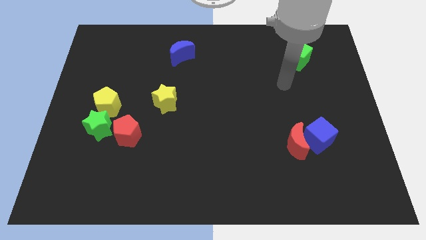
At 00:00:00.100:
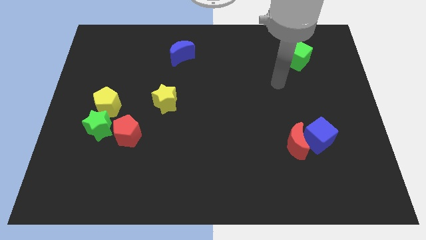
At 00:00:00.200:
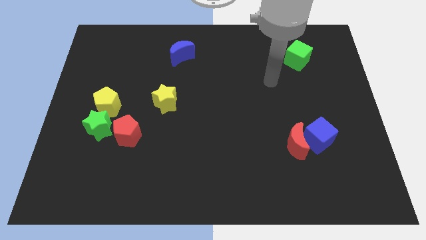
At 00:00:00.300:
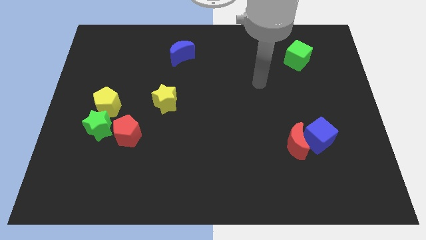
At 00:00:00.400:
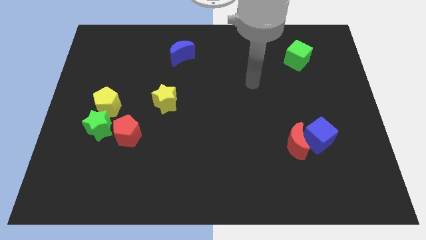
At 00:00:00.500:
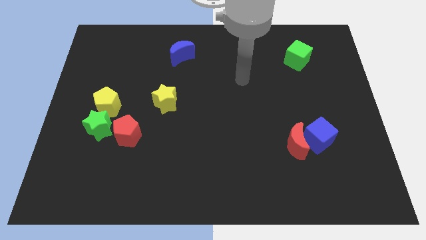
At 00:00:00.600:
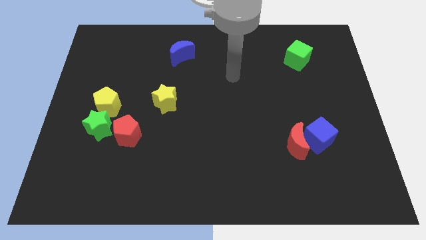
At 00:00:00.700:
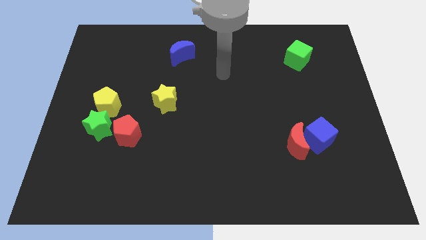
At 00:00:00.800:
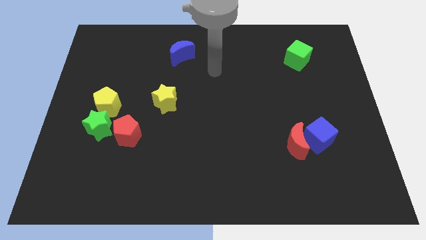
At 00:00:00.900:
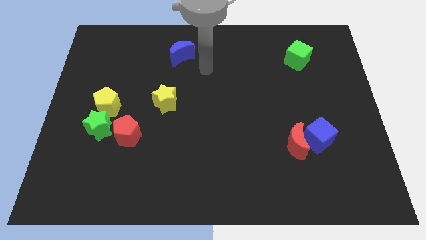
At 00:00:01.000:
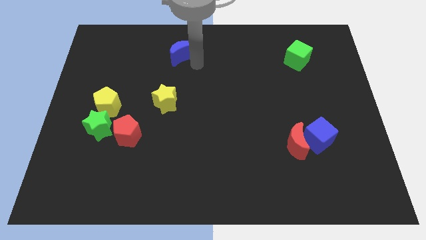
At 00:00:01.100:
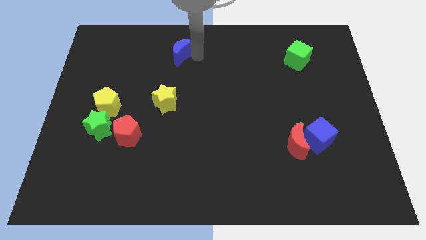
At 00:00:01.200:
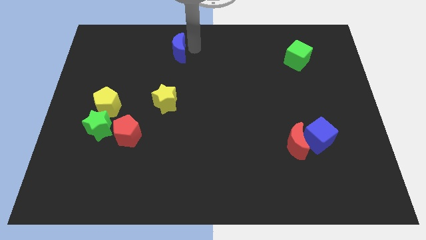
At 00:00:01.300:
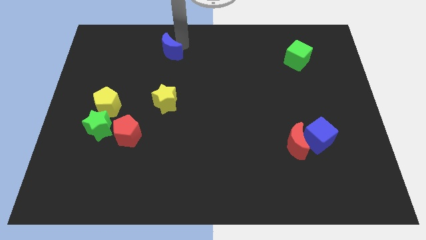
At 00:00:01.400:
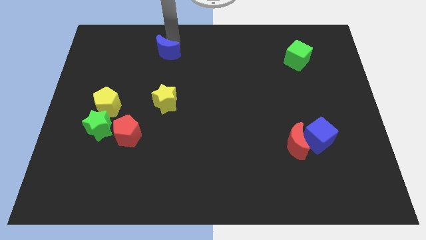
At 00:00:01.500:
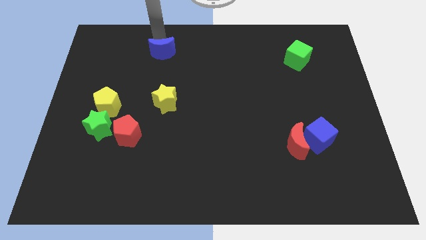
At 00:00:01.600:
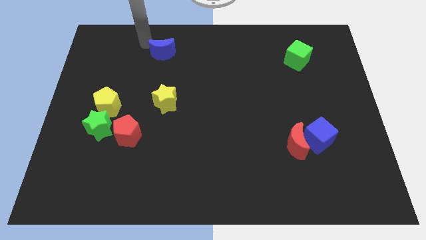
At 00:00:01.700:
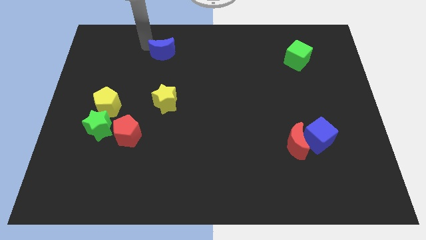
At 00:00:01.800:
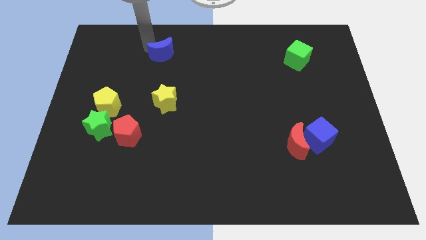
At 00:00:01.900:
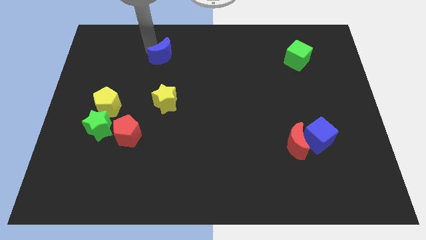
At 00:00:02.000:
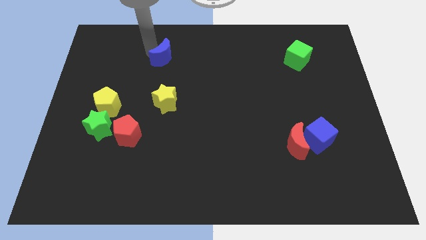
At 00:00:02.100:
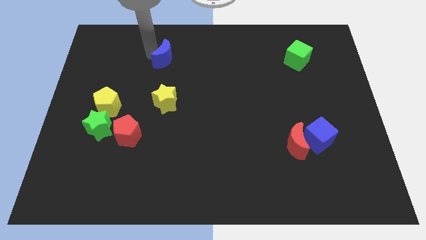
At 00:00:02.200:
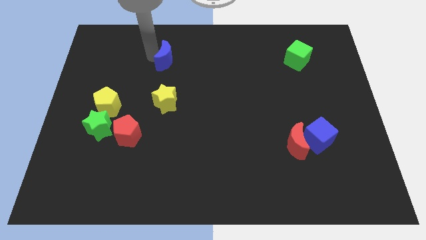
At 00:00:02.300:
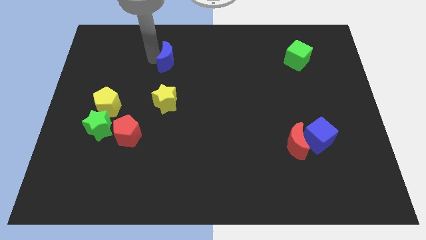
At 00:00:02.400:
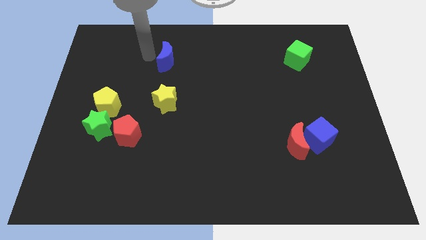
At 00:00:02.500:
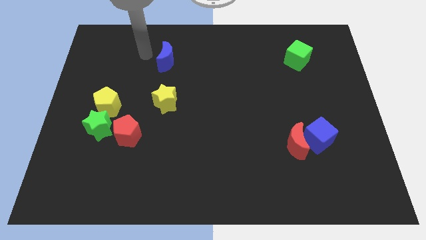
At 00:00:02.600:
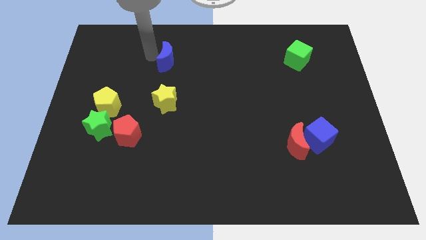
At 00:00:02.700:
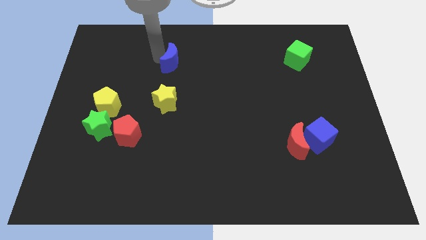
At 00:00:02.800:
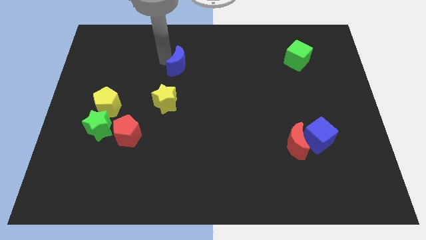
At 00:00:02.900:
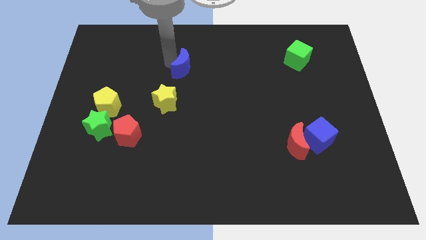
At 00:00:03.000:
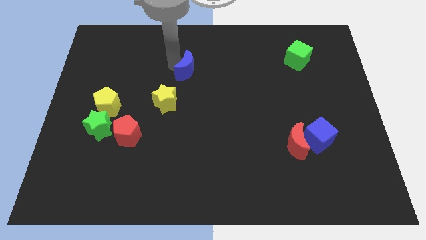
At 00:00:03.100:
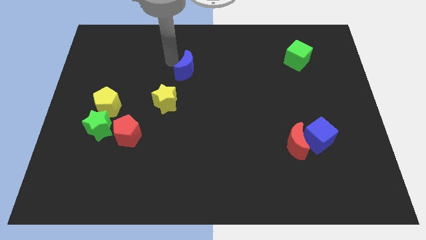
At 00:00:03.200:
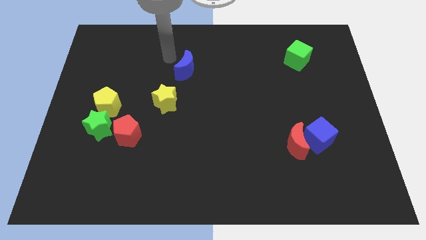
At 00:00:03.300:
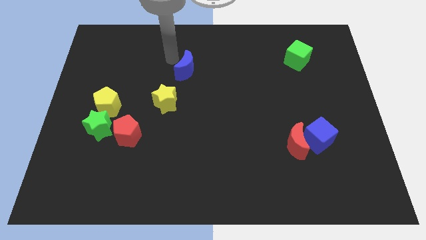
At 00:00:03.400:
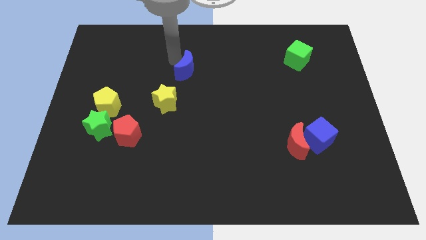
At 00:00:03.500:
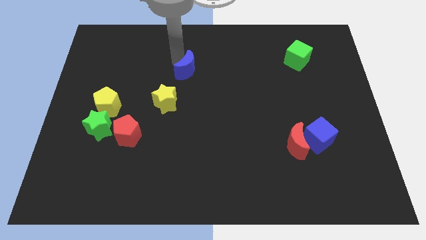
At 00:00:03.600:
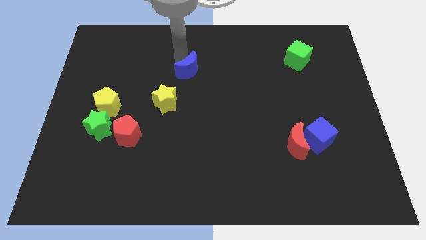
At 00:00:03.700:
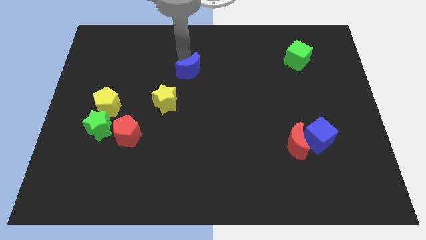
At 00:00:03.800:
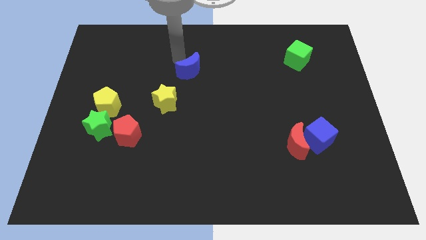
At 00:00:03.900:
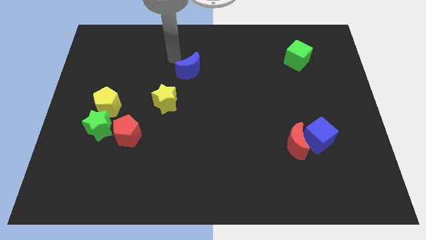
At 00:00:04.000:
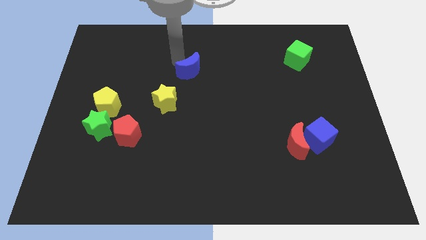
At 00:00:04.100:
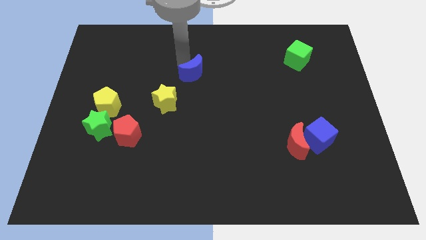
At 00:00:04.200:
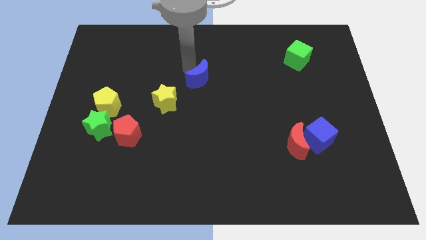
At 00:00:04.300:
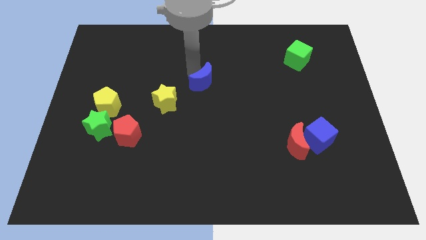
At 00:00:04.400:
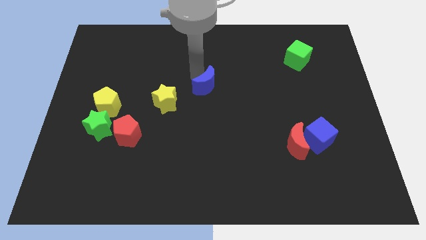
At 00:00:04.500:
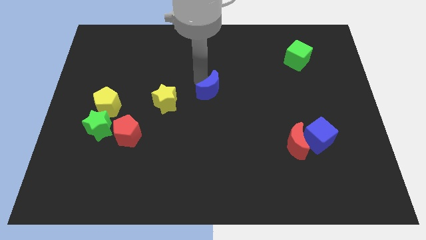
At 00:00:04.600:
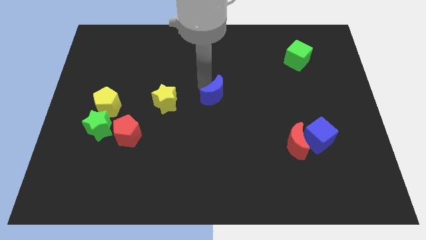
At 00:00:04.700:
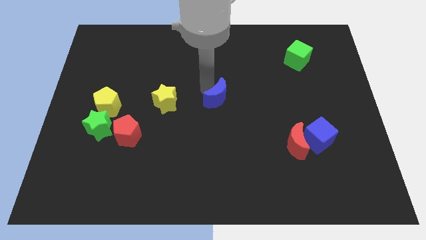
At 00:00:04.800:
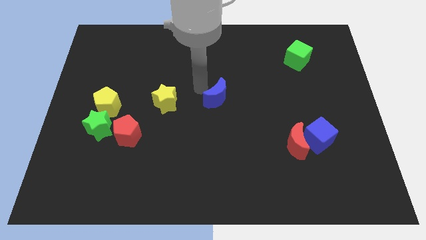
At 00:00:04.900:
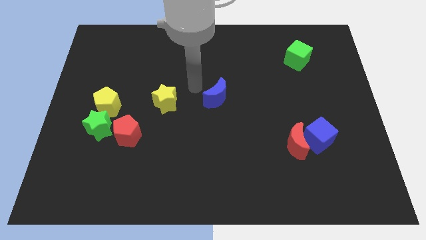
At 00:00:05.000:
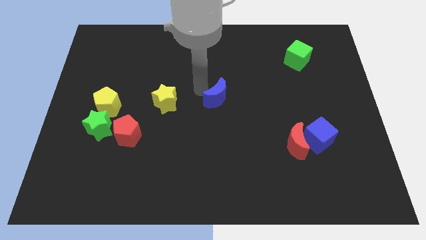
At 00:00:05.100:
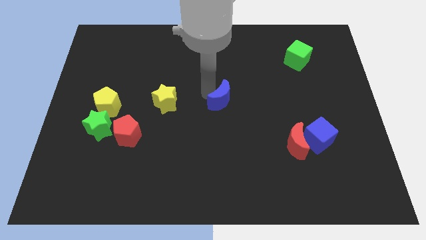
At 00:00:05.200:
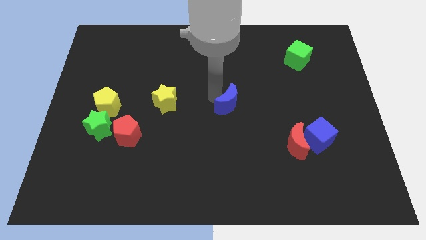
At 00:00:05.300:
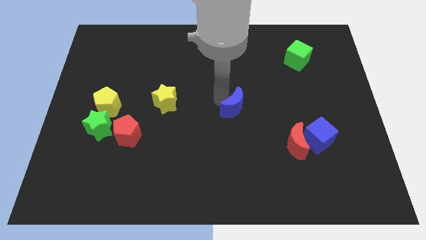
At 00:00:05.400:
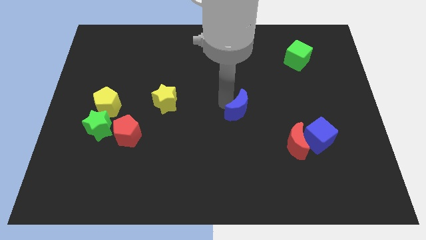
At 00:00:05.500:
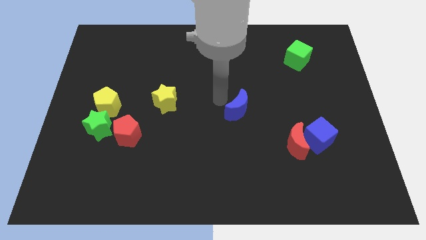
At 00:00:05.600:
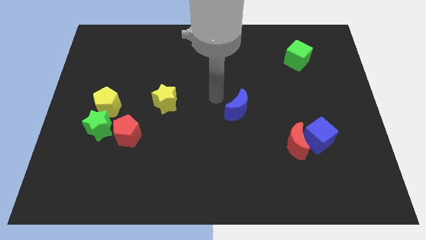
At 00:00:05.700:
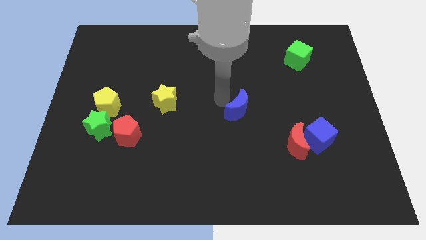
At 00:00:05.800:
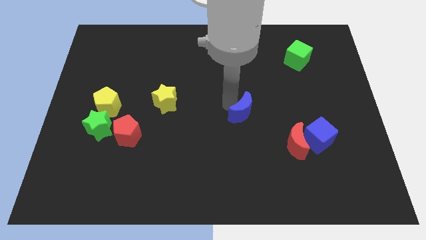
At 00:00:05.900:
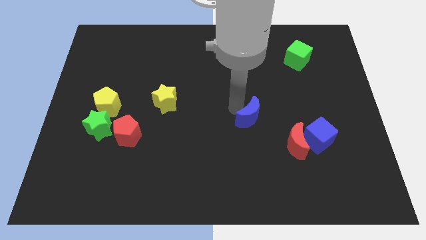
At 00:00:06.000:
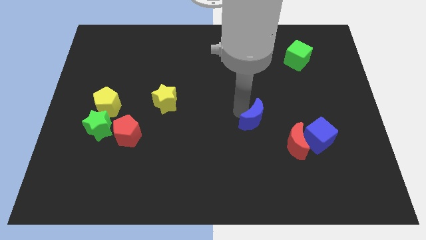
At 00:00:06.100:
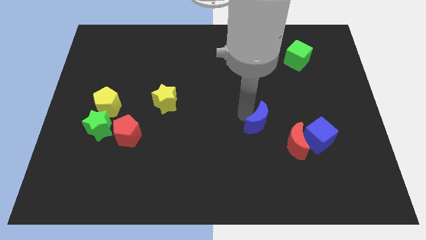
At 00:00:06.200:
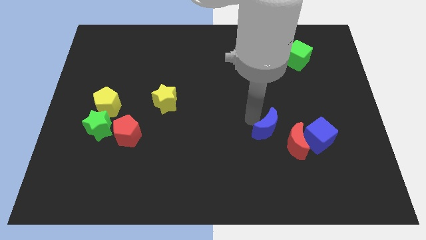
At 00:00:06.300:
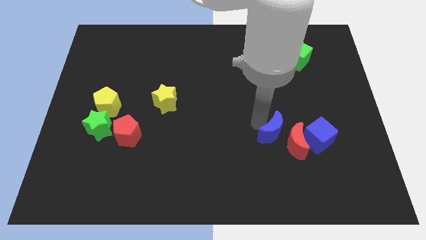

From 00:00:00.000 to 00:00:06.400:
move the blue moon to the red moon

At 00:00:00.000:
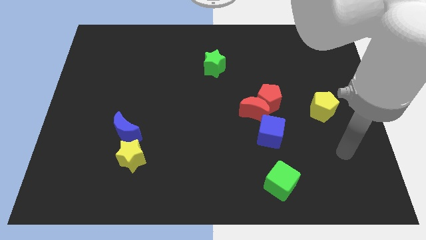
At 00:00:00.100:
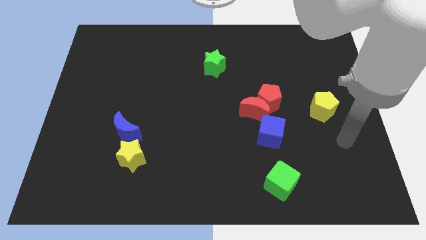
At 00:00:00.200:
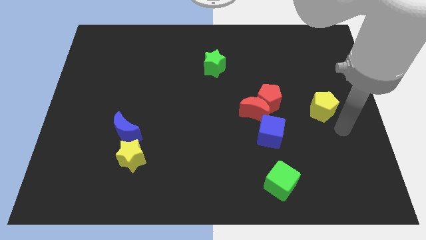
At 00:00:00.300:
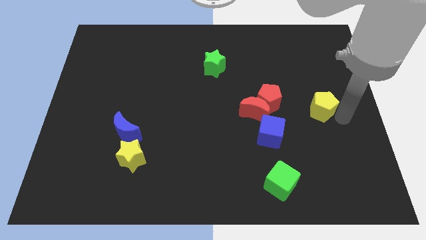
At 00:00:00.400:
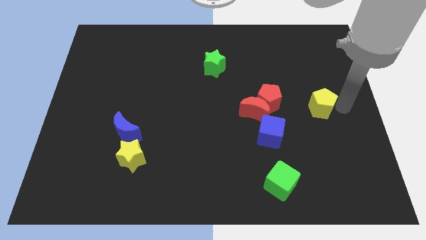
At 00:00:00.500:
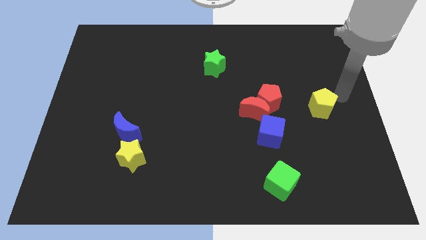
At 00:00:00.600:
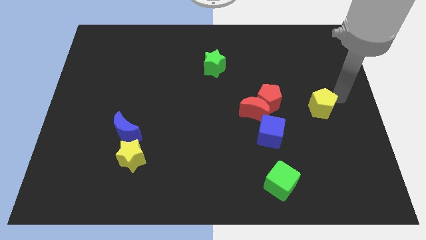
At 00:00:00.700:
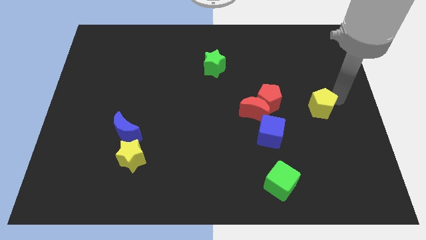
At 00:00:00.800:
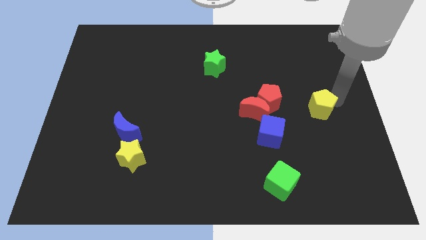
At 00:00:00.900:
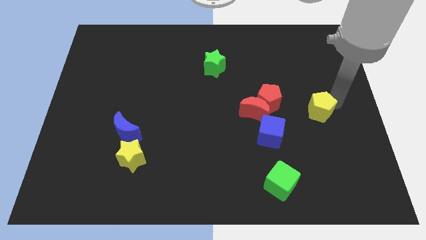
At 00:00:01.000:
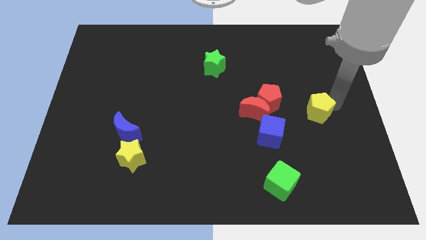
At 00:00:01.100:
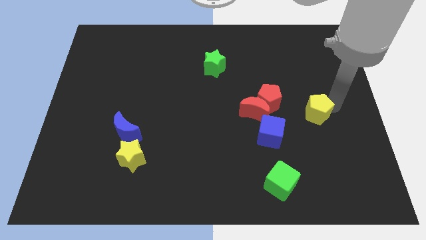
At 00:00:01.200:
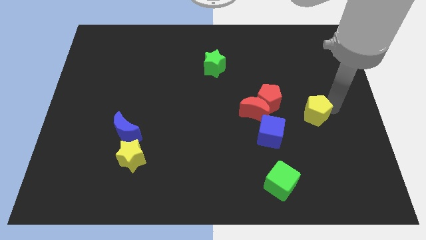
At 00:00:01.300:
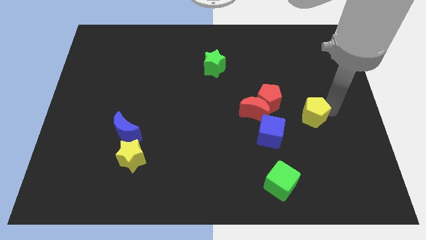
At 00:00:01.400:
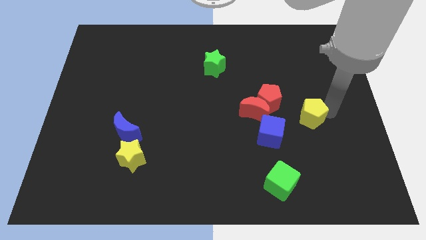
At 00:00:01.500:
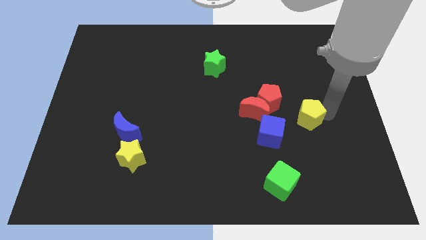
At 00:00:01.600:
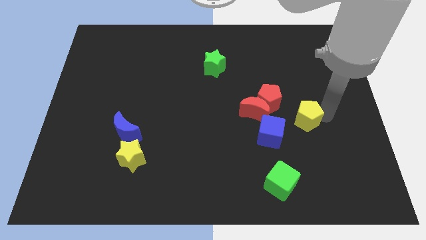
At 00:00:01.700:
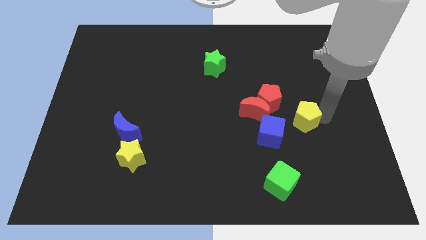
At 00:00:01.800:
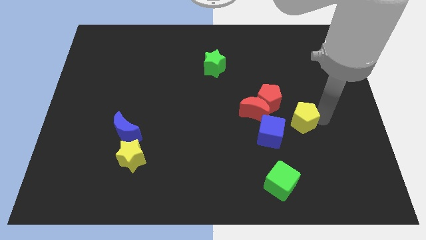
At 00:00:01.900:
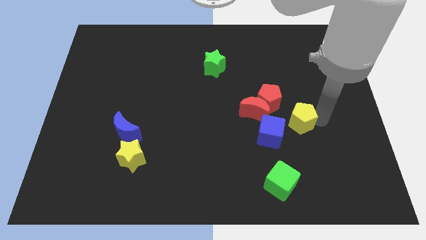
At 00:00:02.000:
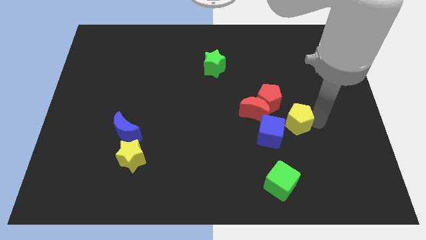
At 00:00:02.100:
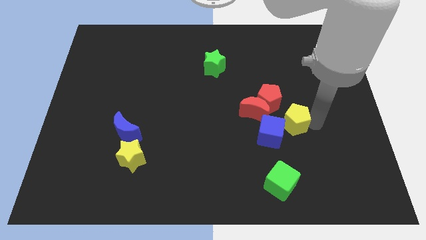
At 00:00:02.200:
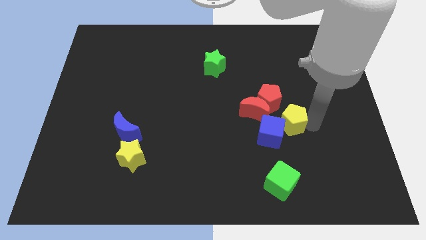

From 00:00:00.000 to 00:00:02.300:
move the yellow pentagon next to the blue cube
